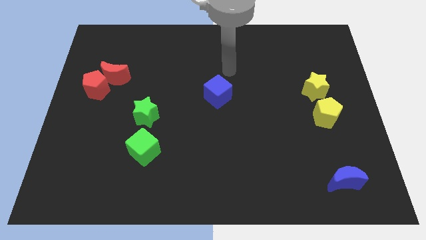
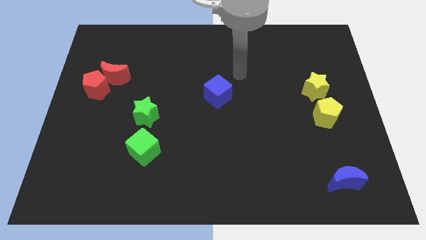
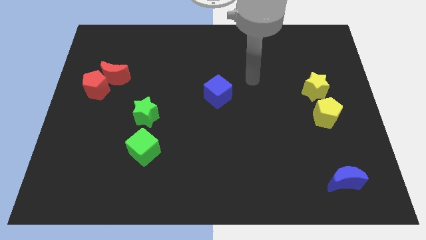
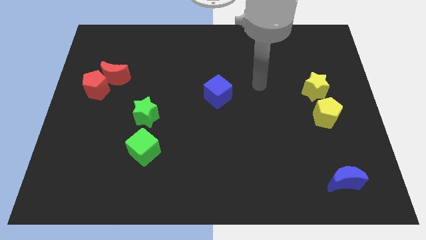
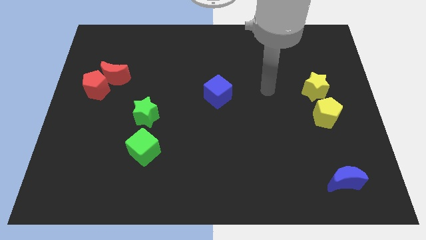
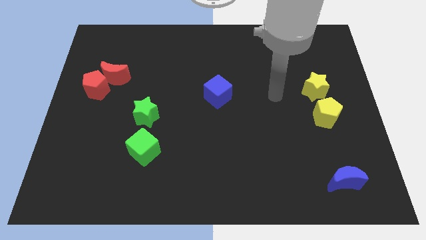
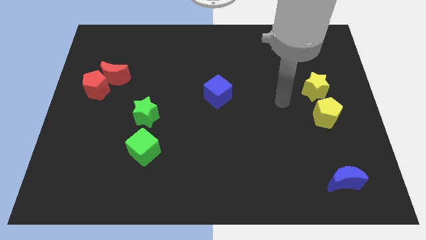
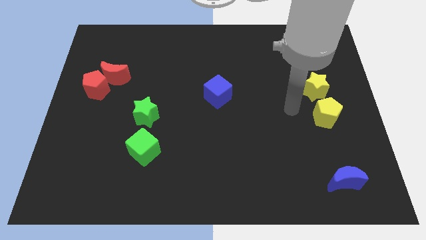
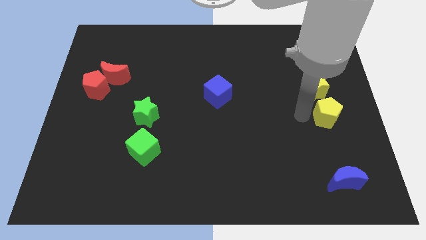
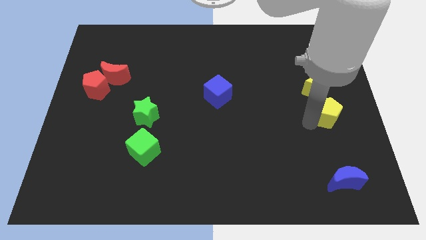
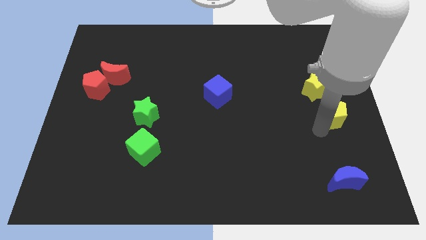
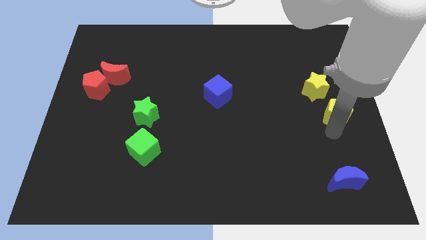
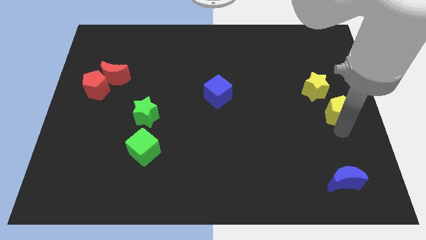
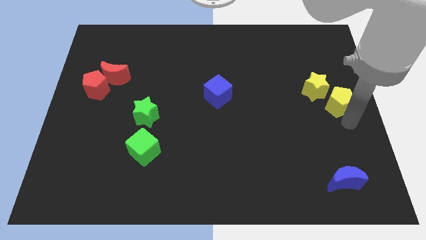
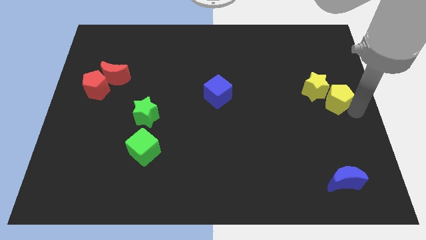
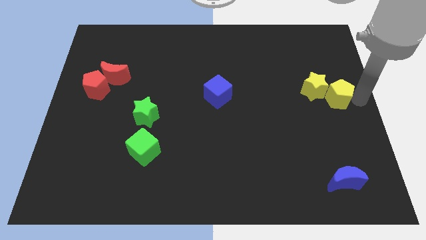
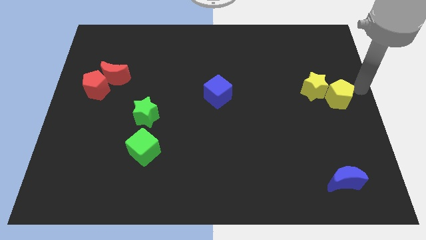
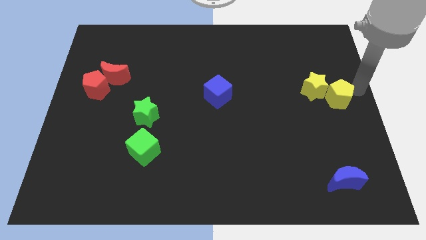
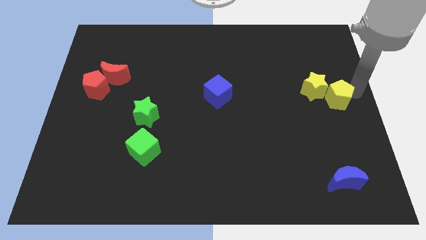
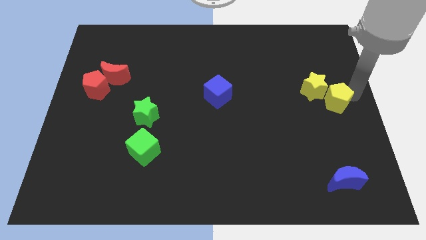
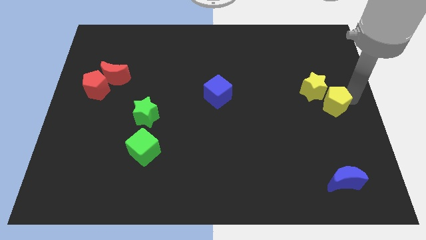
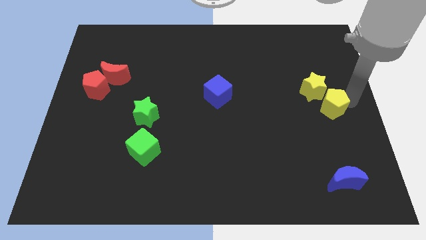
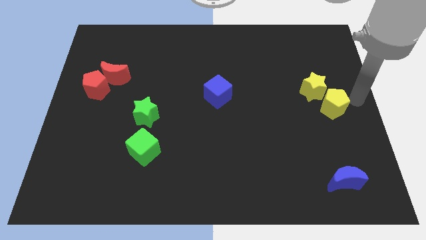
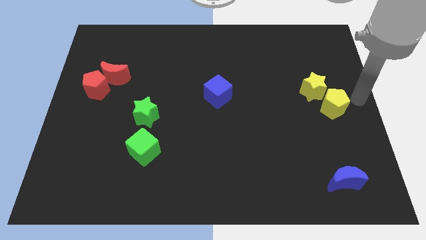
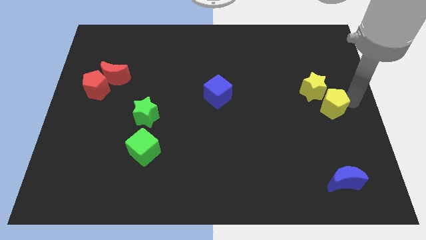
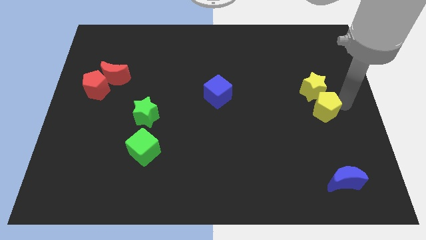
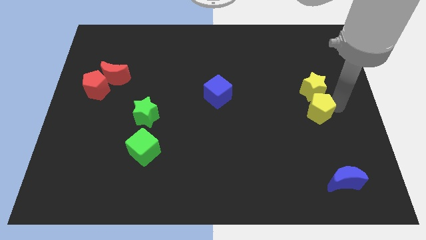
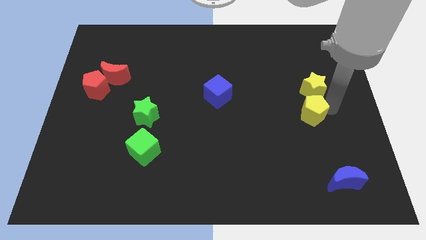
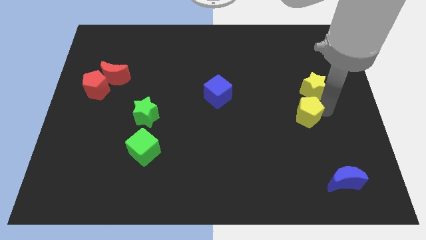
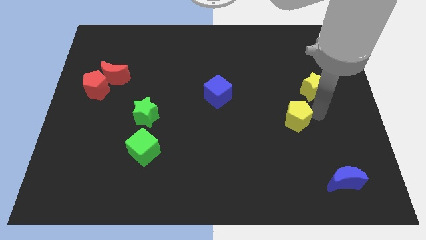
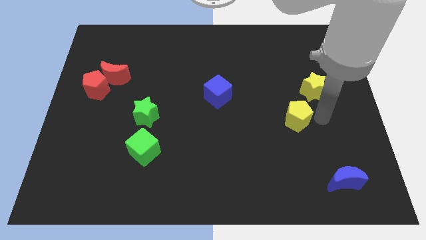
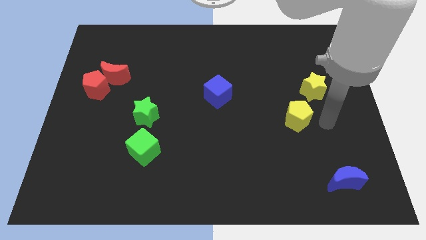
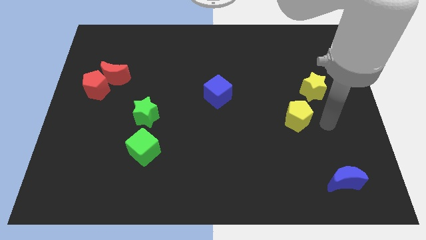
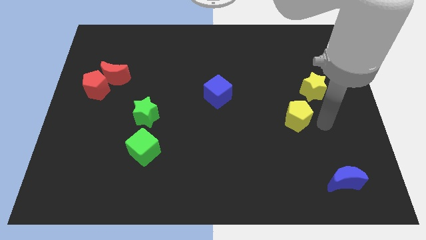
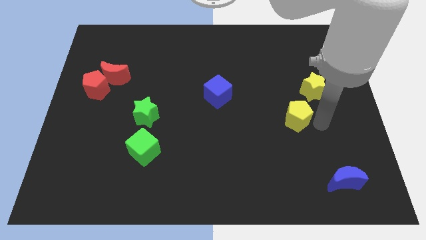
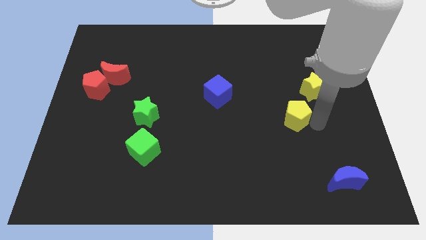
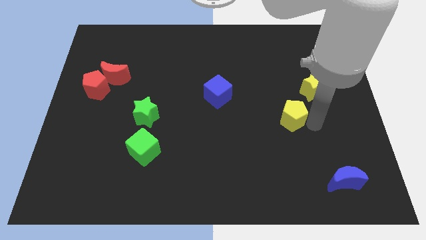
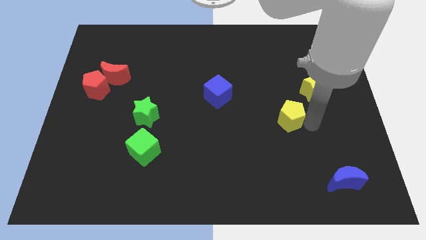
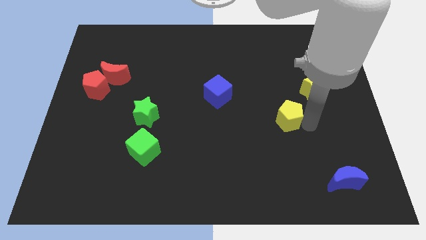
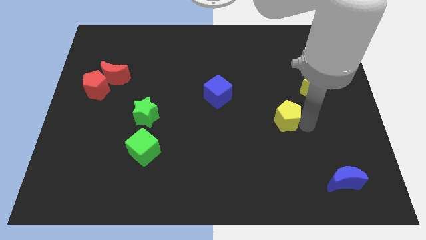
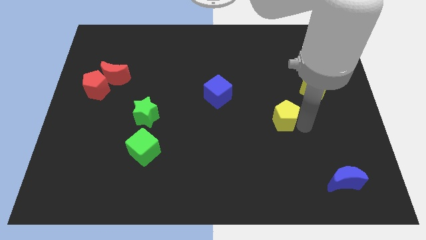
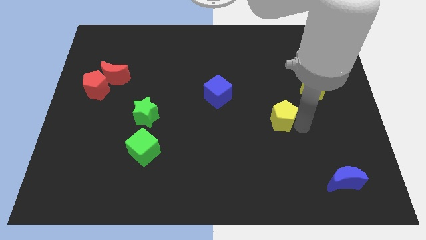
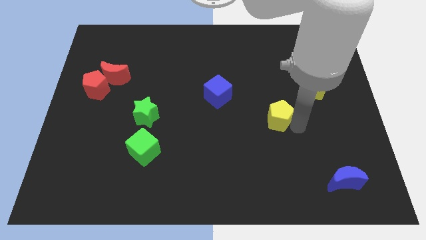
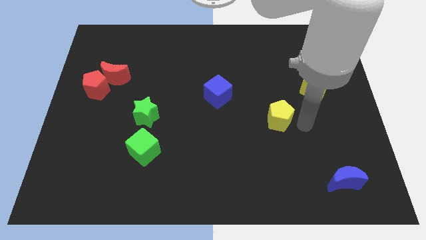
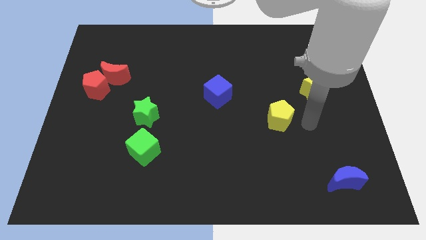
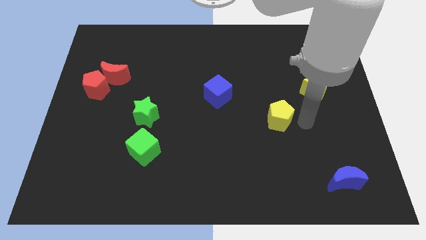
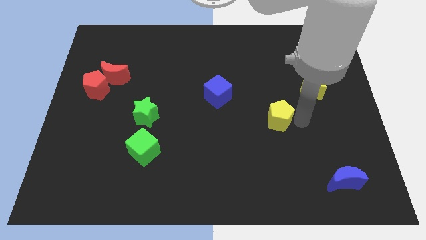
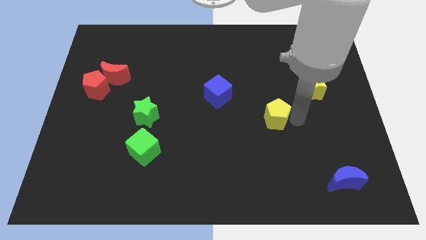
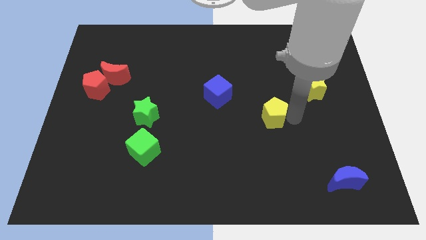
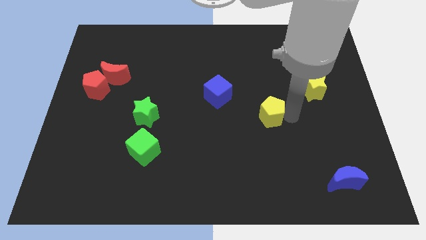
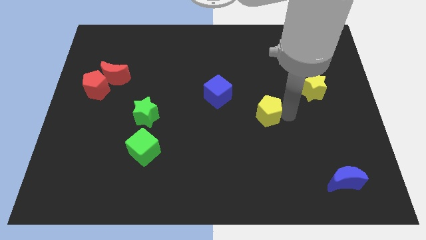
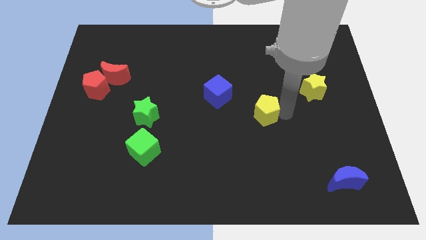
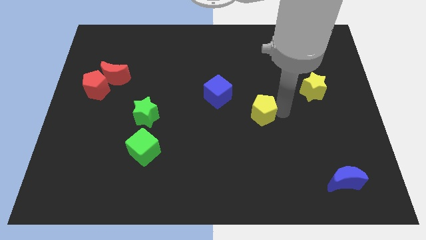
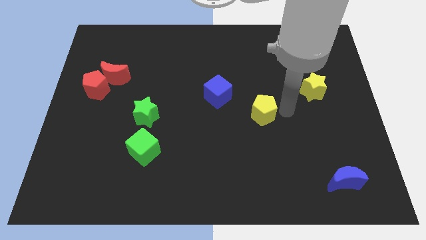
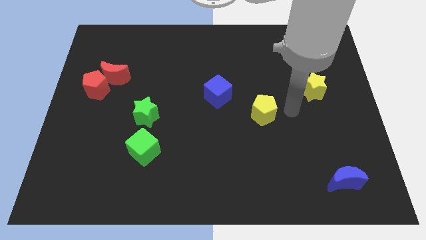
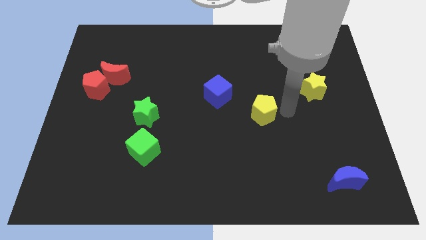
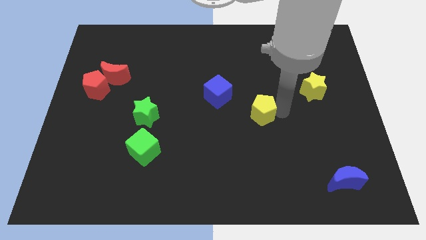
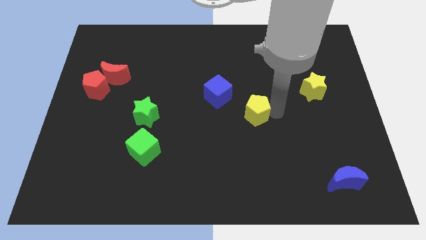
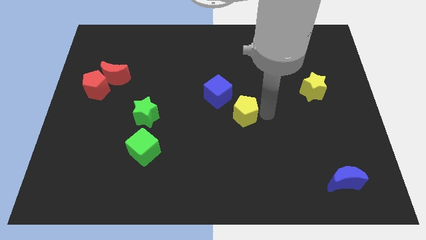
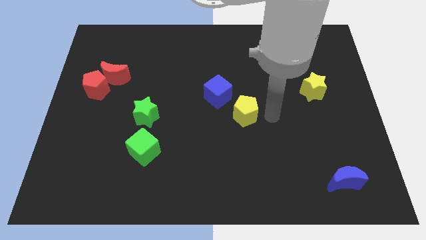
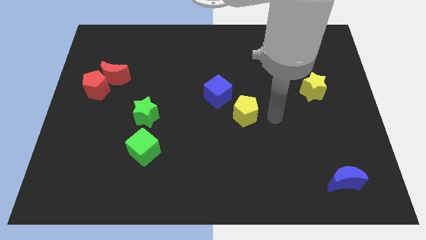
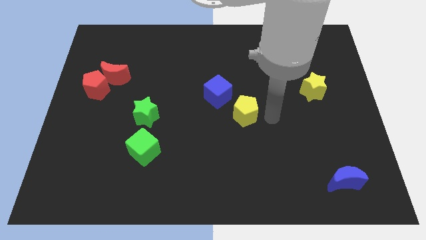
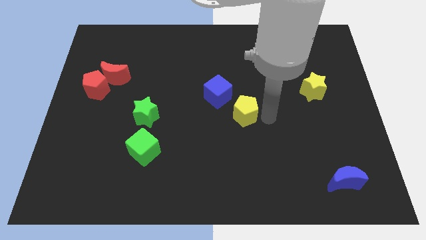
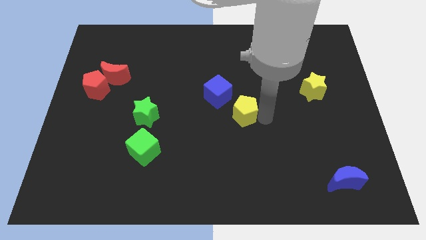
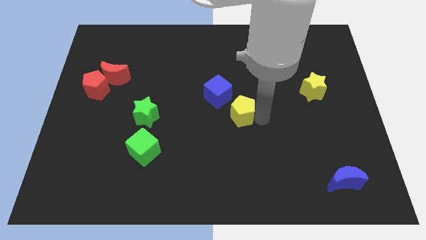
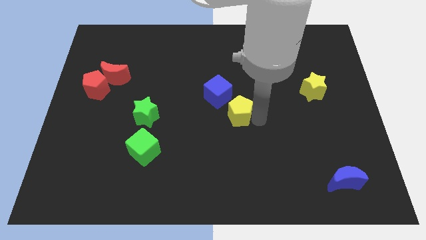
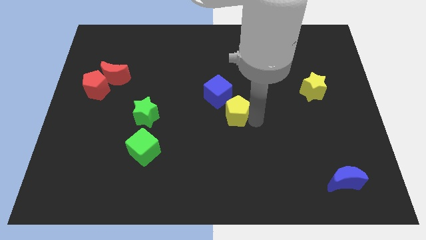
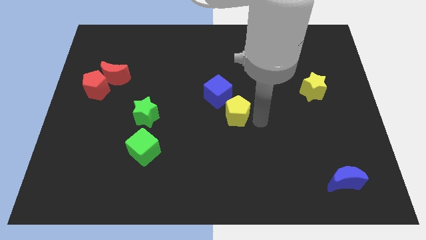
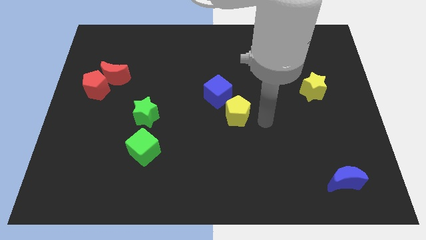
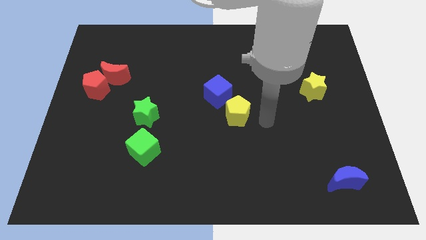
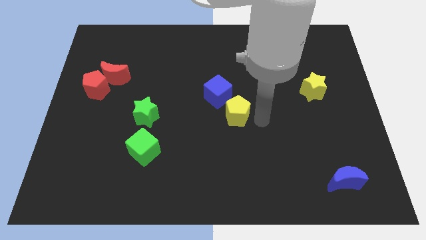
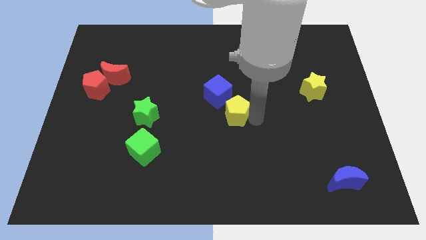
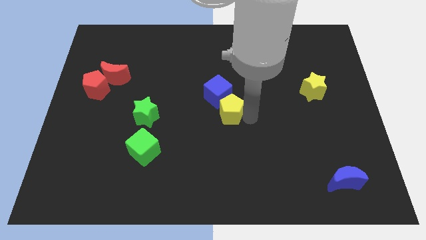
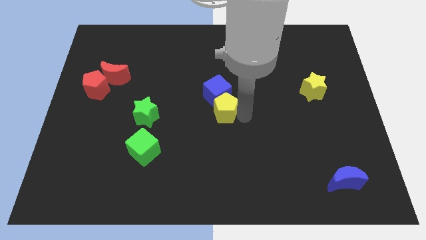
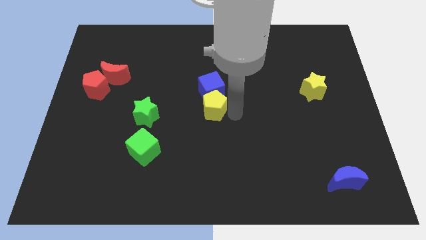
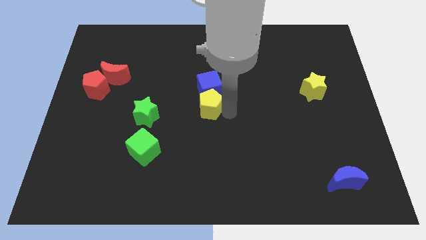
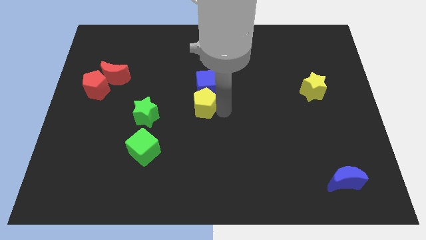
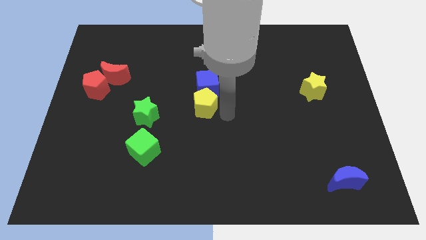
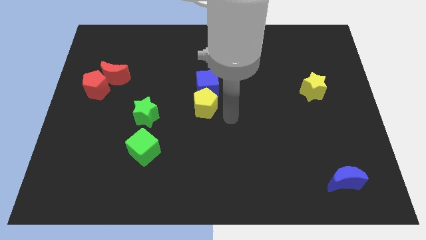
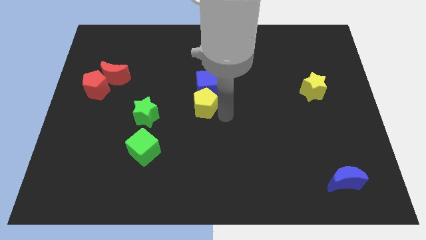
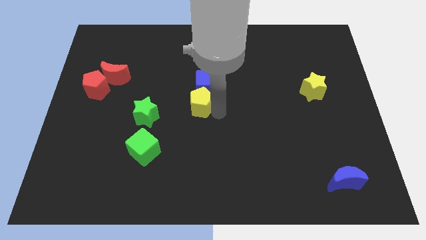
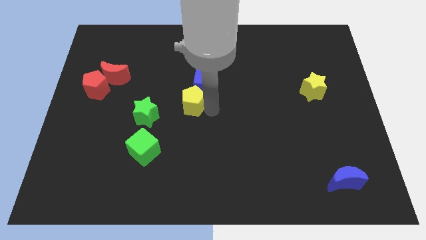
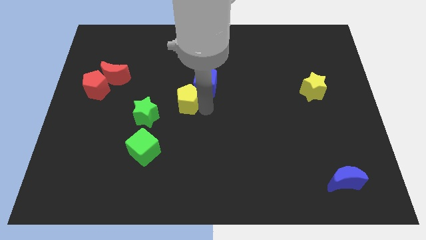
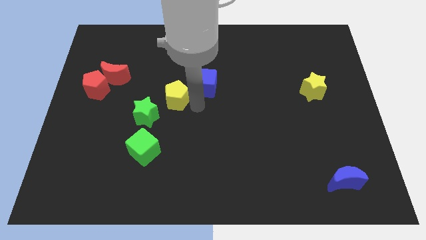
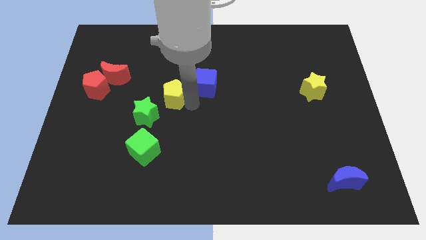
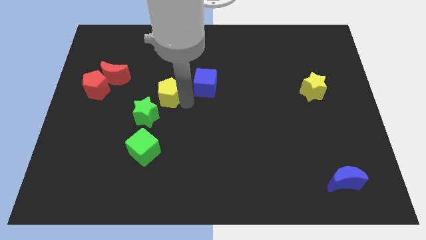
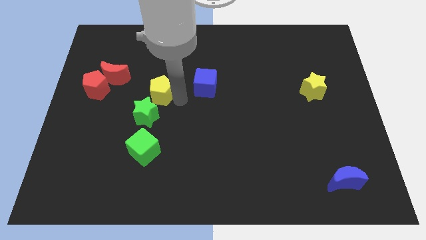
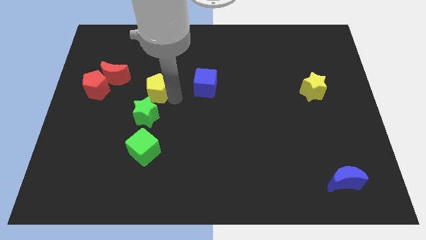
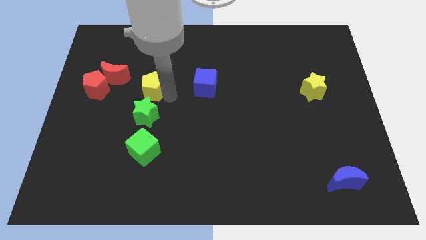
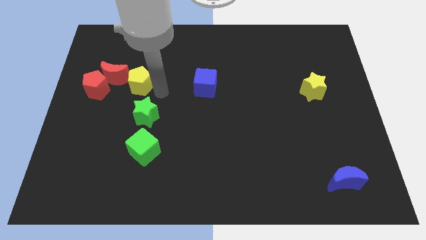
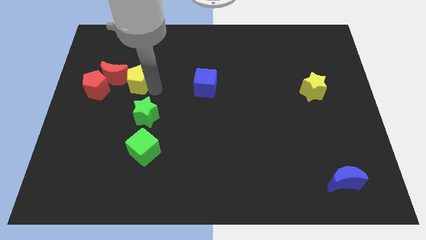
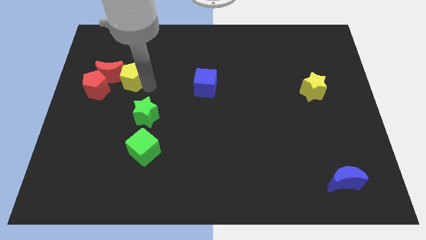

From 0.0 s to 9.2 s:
slide the yellow pentagon next to the red moon
